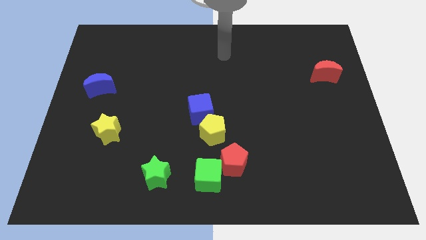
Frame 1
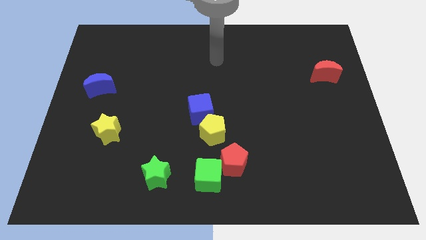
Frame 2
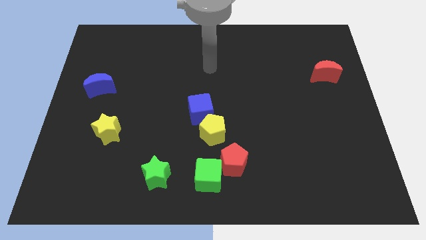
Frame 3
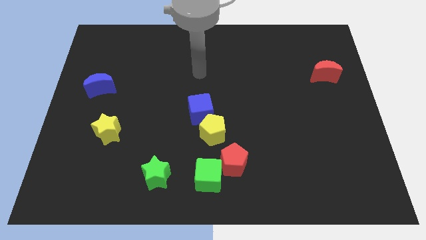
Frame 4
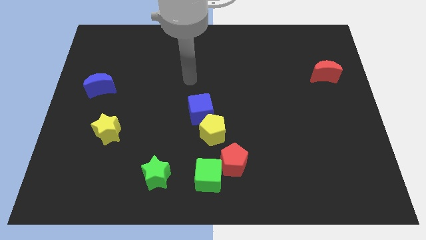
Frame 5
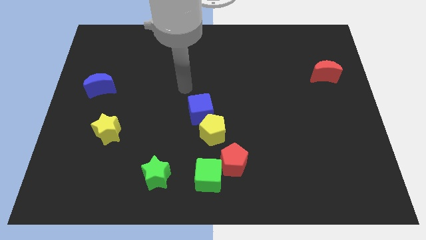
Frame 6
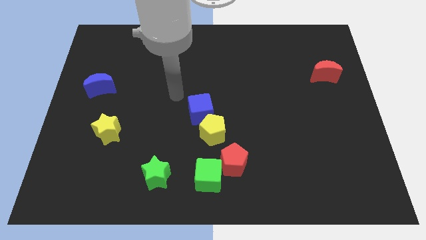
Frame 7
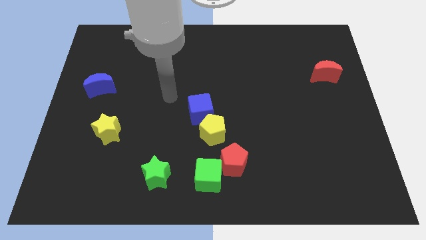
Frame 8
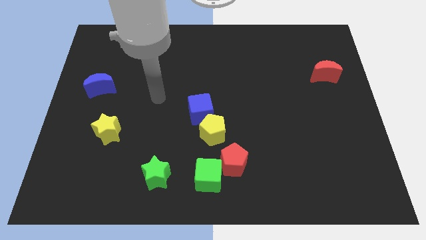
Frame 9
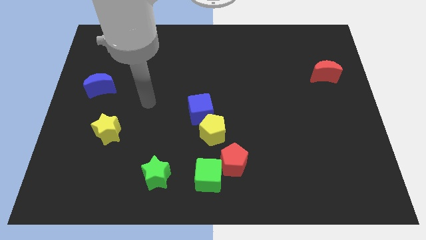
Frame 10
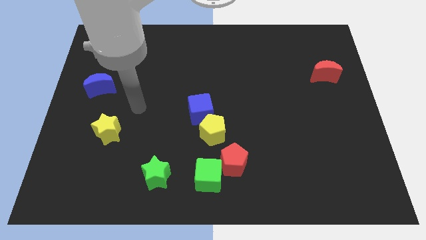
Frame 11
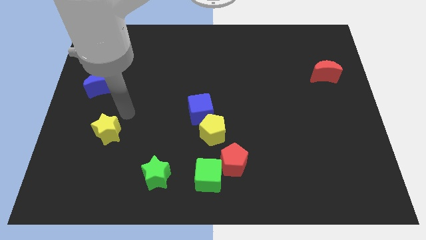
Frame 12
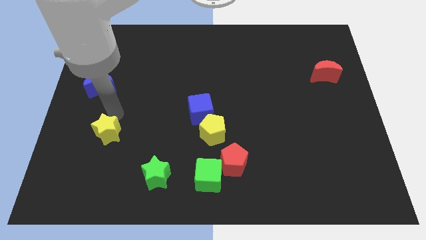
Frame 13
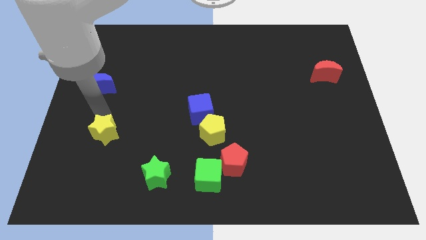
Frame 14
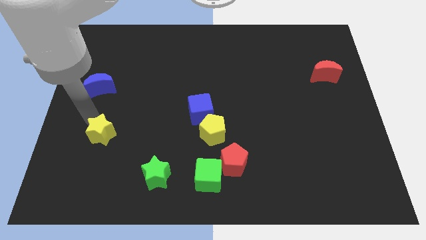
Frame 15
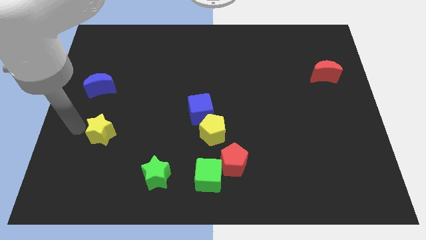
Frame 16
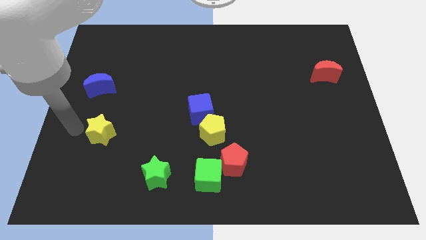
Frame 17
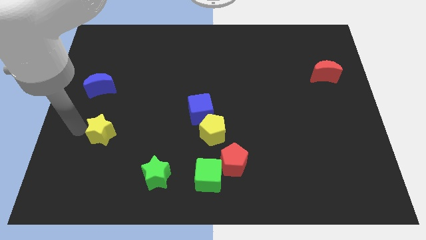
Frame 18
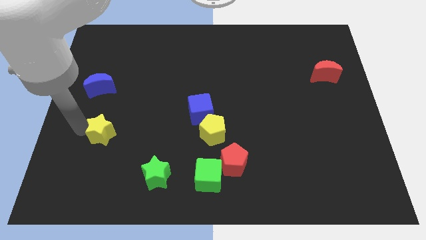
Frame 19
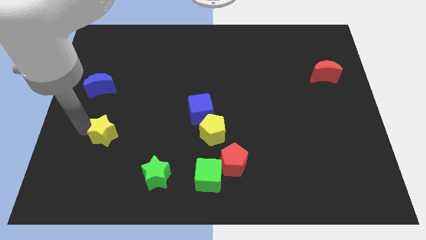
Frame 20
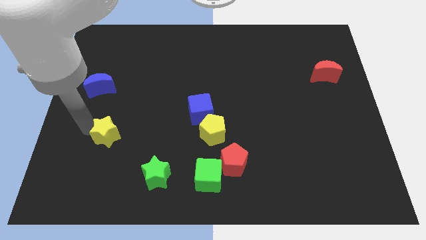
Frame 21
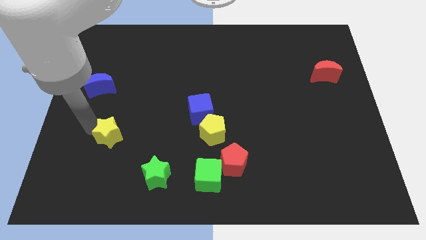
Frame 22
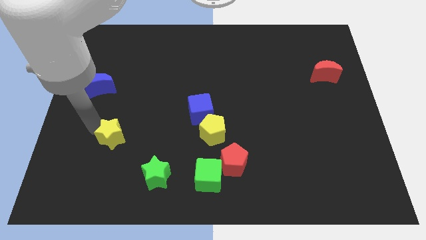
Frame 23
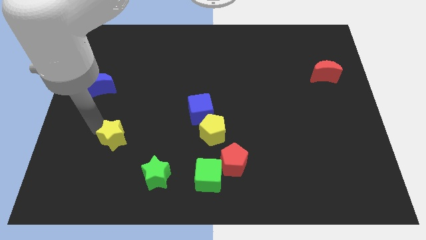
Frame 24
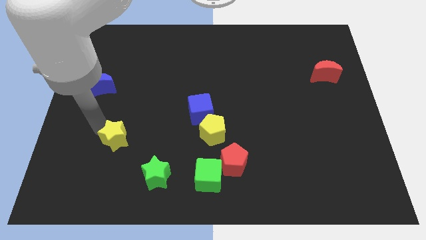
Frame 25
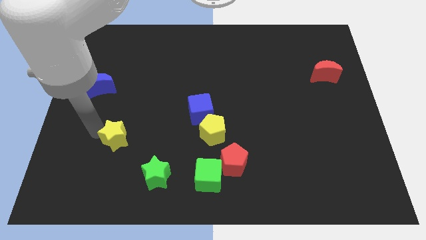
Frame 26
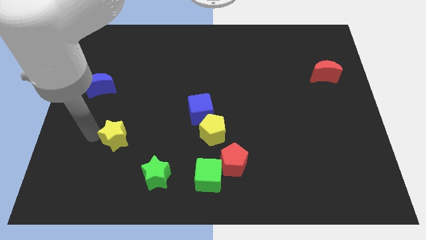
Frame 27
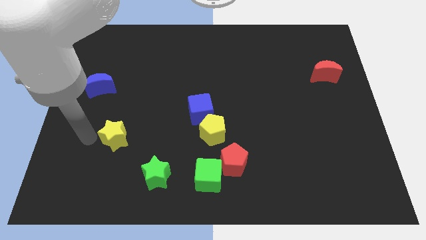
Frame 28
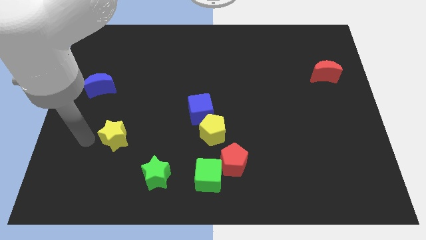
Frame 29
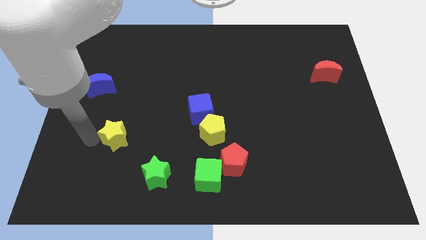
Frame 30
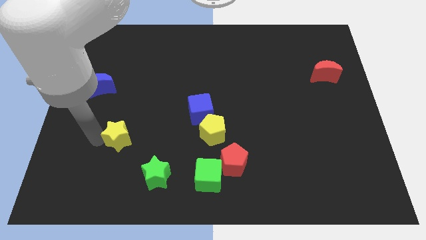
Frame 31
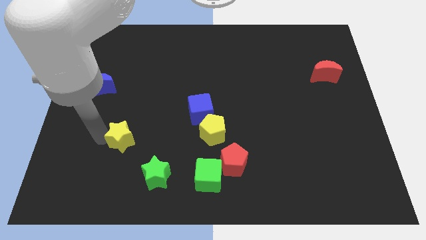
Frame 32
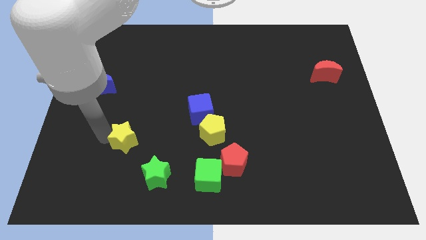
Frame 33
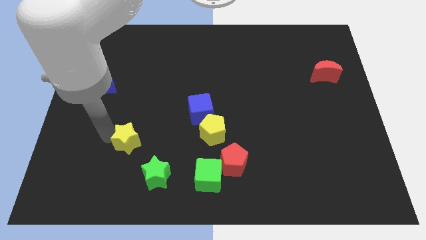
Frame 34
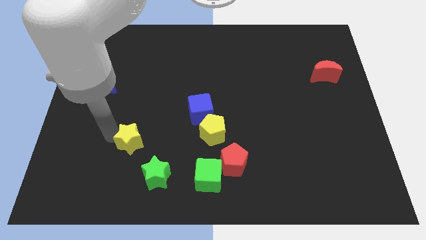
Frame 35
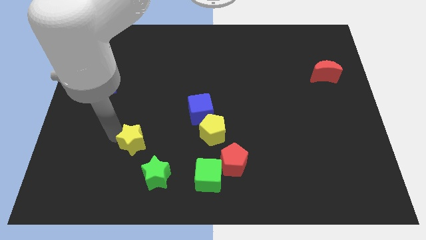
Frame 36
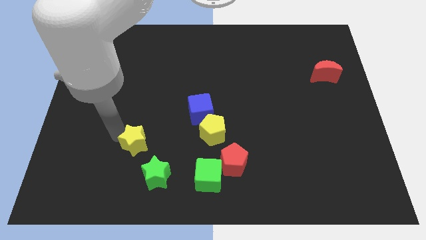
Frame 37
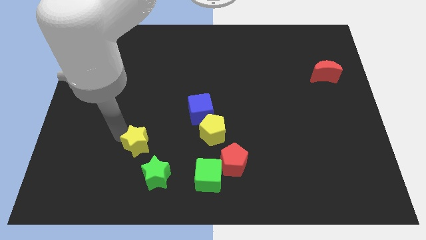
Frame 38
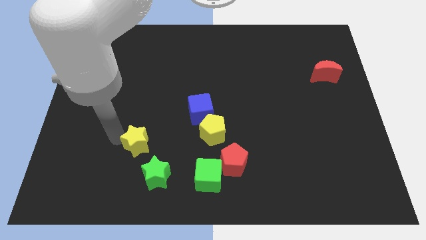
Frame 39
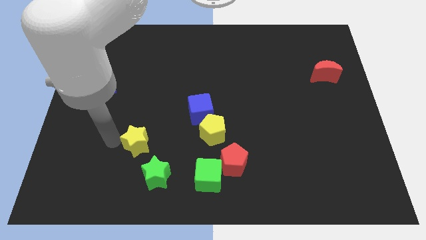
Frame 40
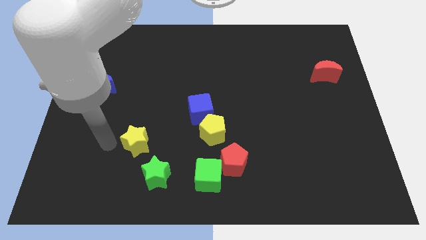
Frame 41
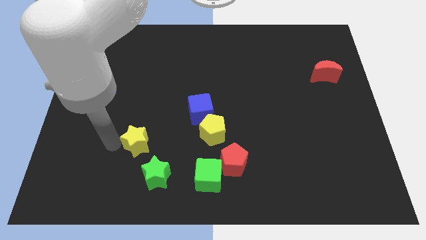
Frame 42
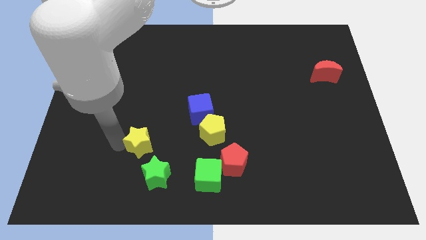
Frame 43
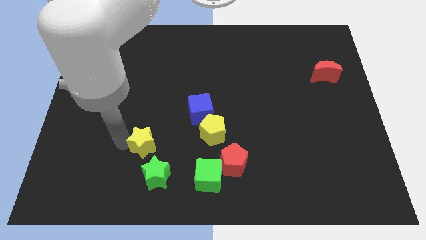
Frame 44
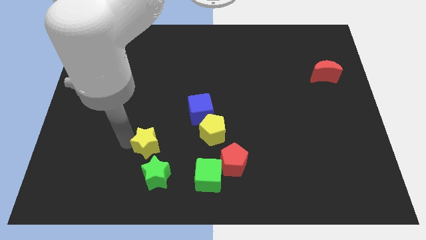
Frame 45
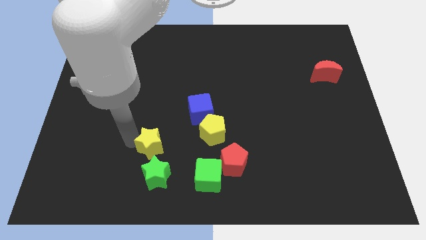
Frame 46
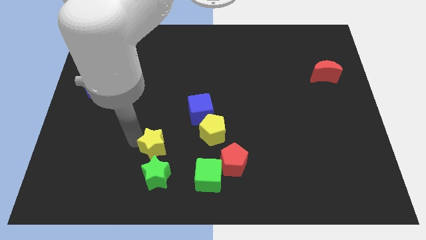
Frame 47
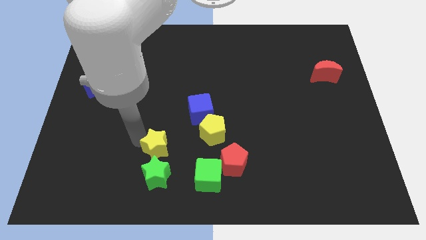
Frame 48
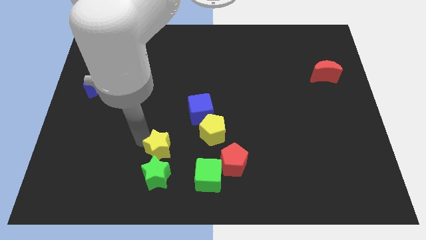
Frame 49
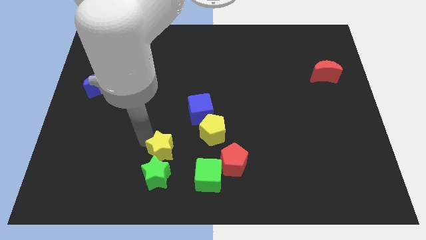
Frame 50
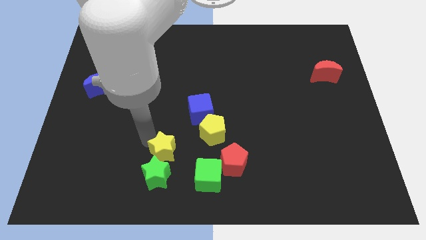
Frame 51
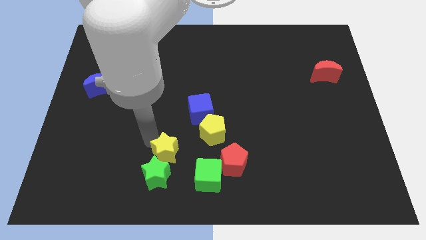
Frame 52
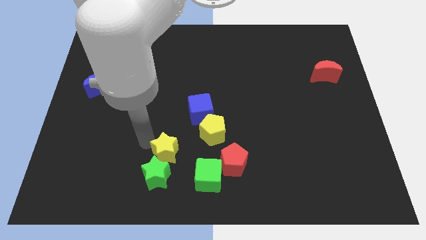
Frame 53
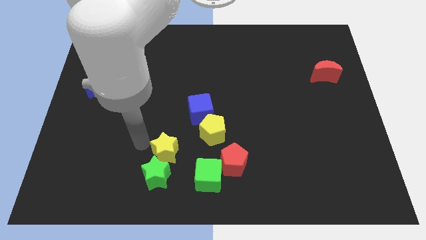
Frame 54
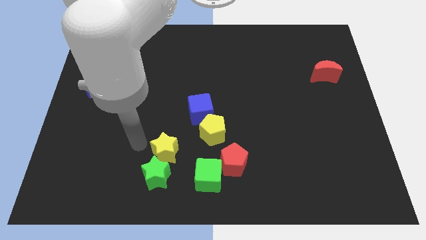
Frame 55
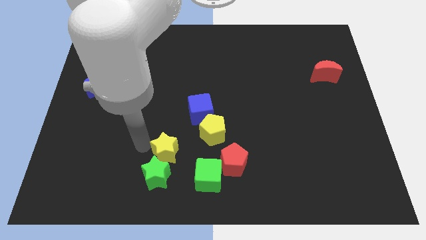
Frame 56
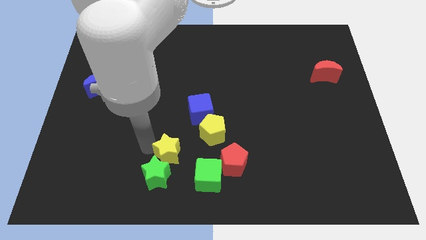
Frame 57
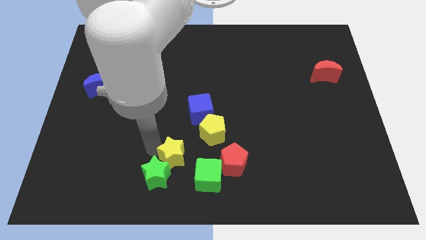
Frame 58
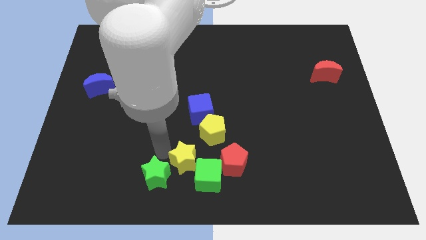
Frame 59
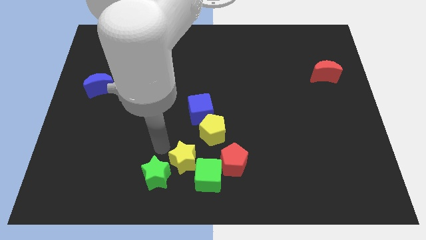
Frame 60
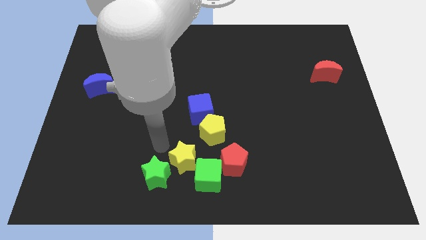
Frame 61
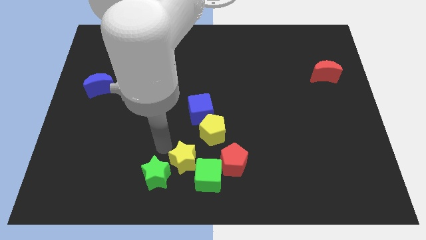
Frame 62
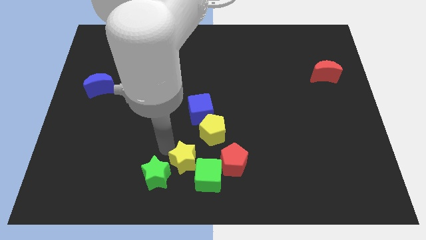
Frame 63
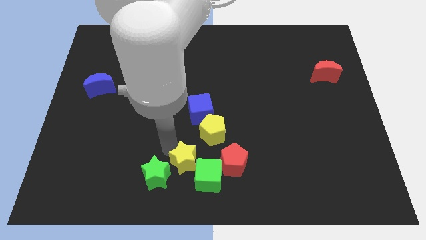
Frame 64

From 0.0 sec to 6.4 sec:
slide the yellow star close to the green cube

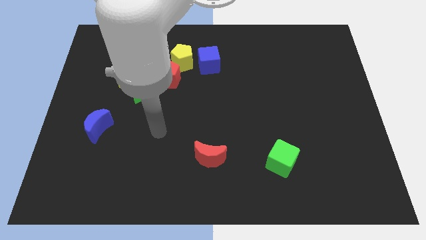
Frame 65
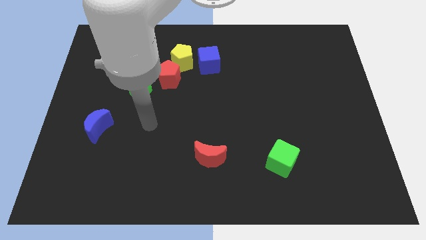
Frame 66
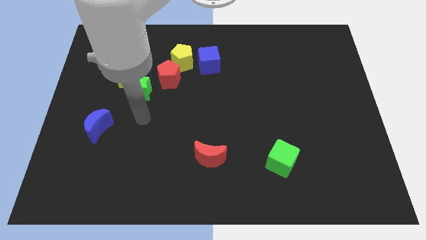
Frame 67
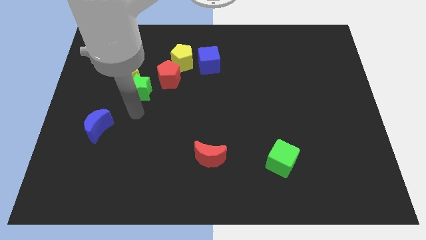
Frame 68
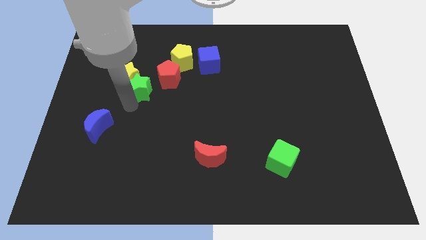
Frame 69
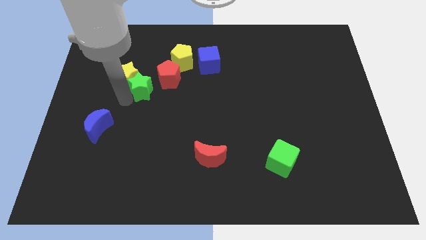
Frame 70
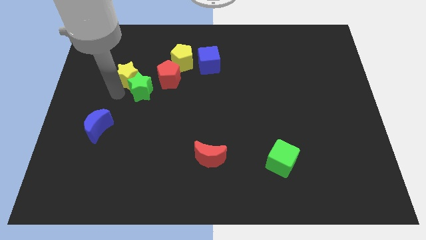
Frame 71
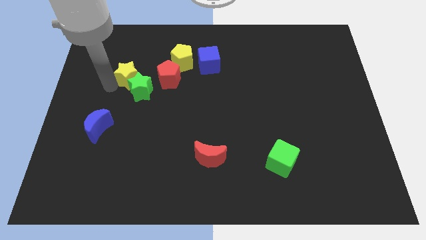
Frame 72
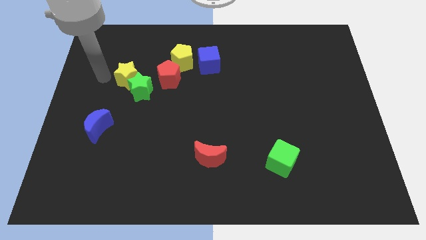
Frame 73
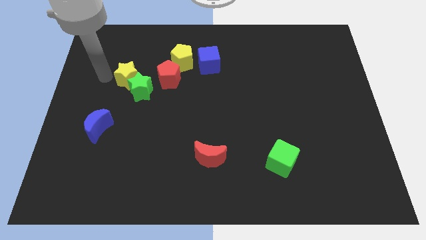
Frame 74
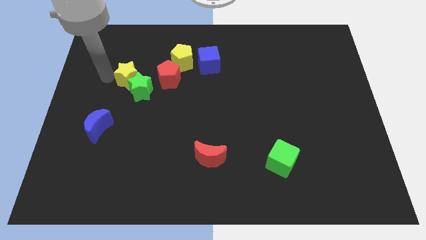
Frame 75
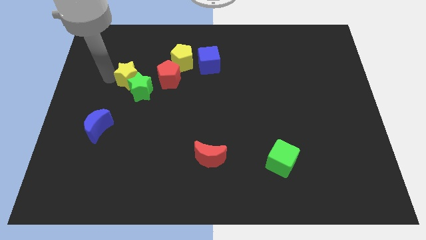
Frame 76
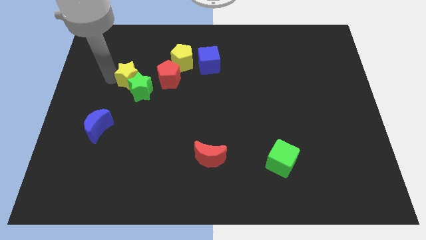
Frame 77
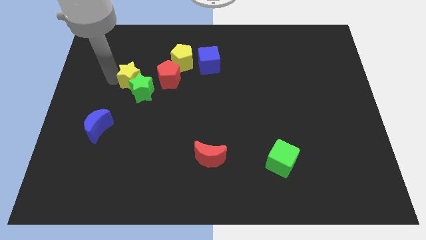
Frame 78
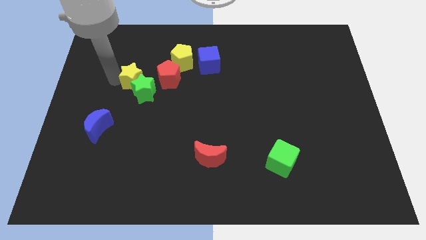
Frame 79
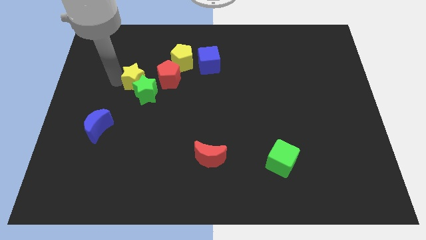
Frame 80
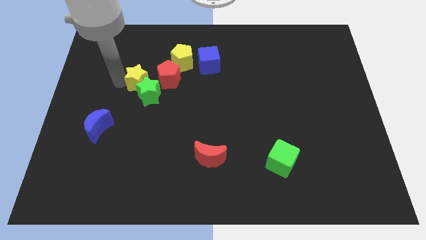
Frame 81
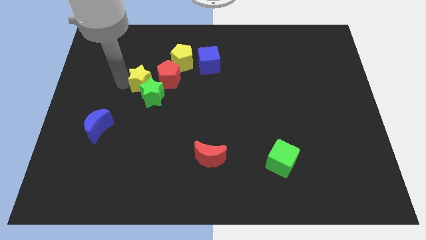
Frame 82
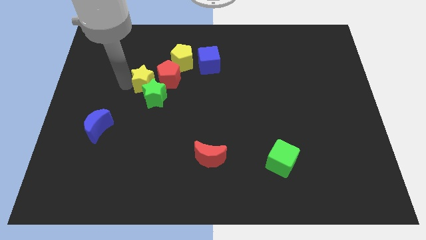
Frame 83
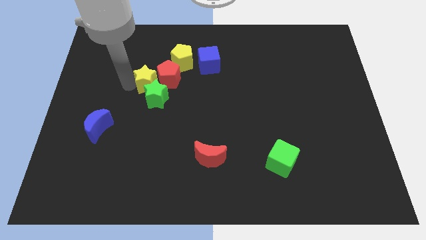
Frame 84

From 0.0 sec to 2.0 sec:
slide the yellow star next to the red pentagon
